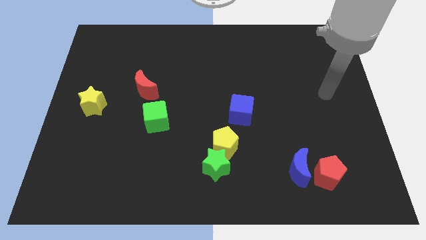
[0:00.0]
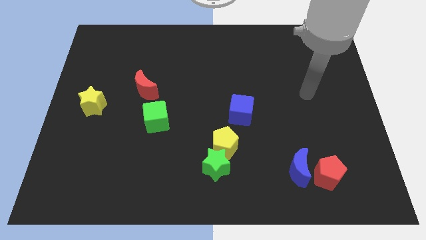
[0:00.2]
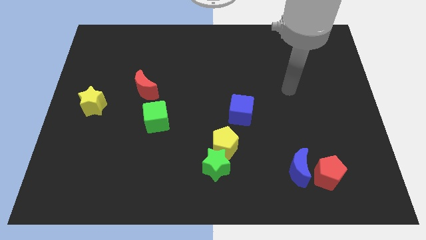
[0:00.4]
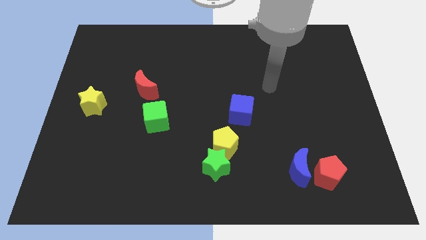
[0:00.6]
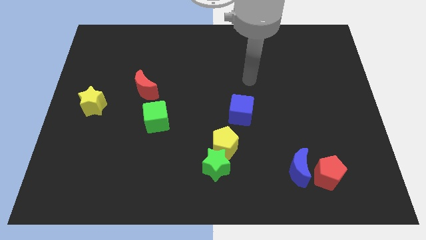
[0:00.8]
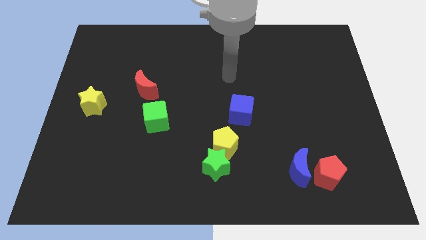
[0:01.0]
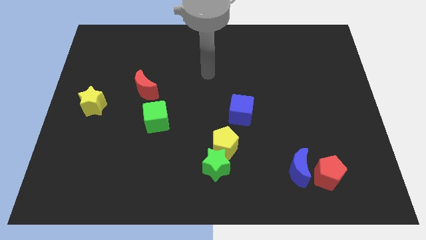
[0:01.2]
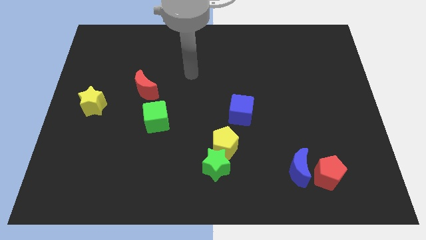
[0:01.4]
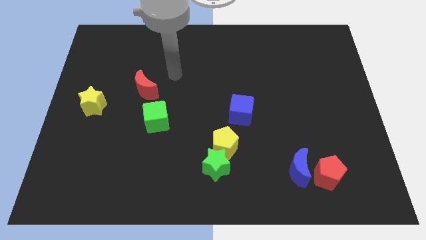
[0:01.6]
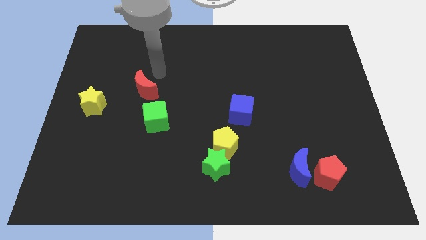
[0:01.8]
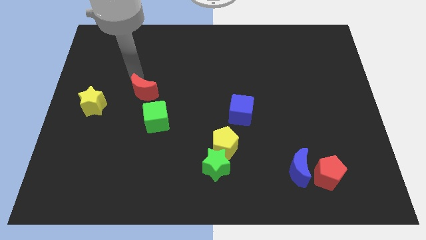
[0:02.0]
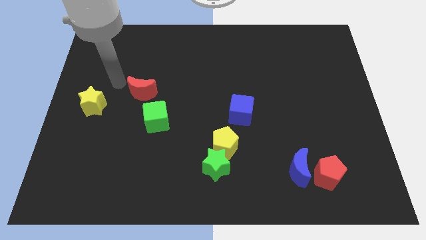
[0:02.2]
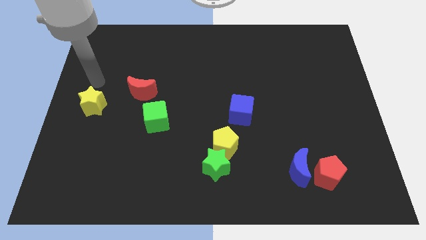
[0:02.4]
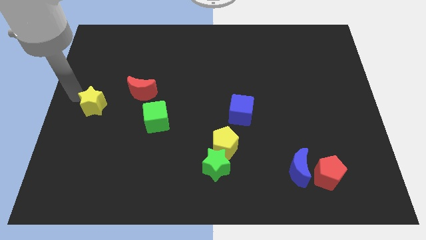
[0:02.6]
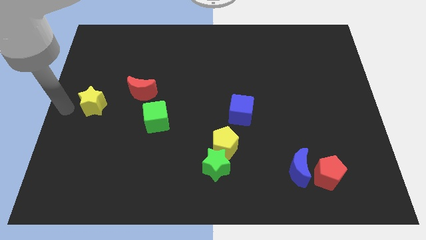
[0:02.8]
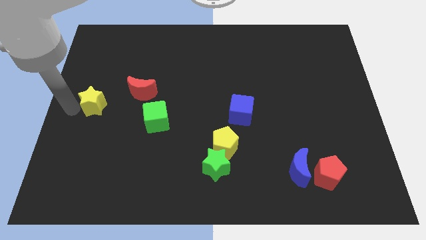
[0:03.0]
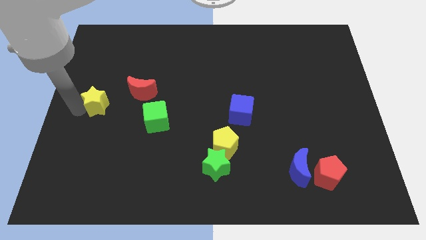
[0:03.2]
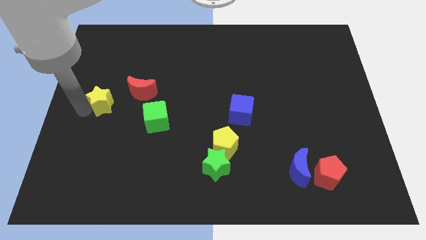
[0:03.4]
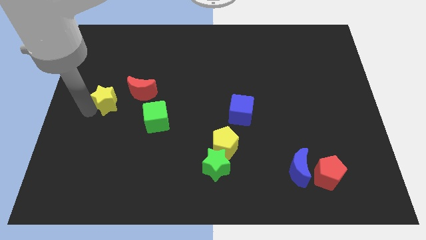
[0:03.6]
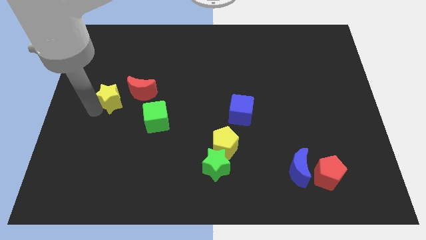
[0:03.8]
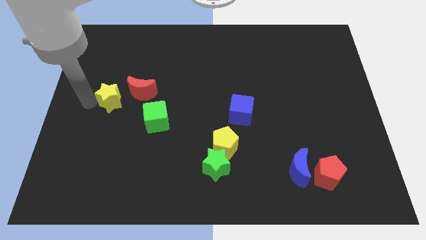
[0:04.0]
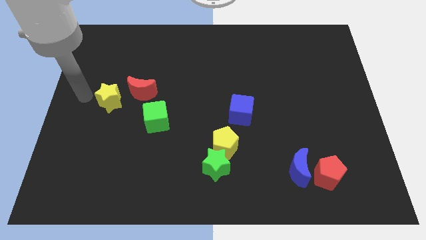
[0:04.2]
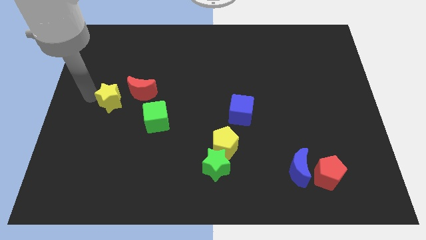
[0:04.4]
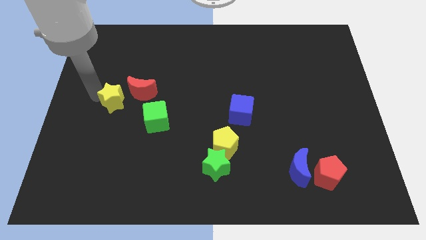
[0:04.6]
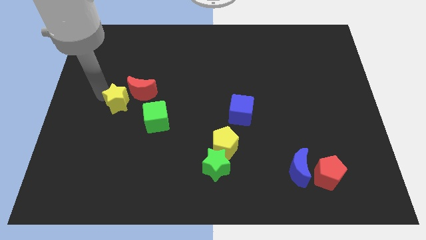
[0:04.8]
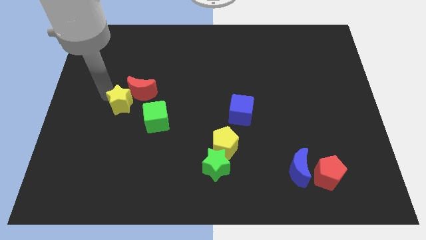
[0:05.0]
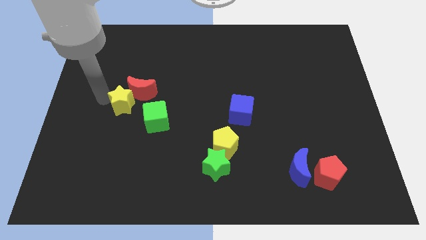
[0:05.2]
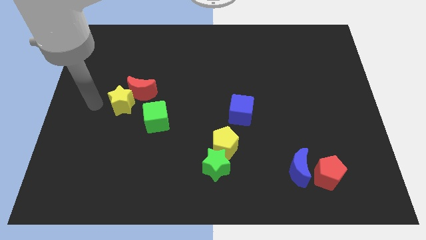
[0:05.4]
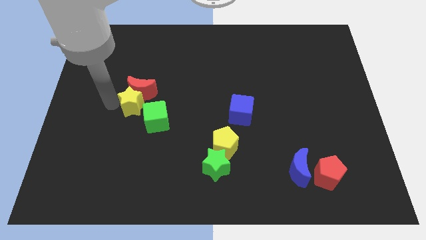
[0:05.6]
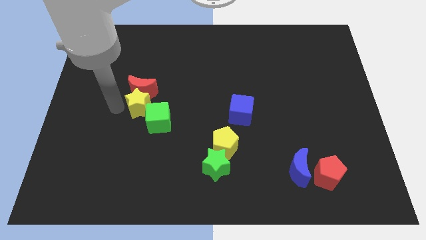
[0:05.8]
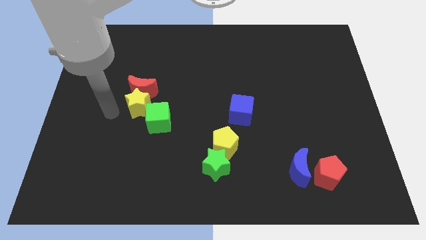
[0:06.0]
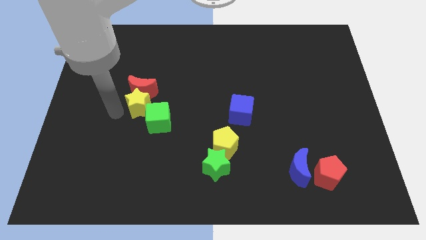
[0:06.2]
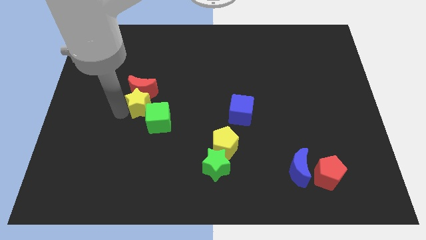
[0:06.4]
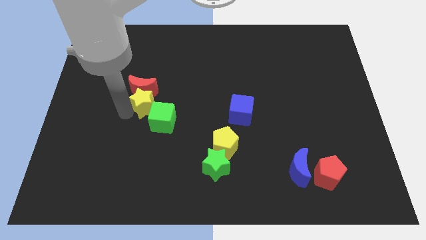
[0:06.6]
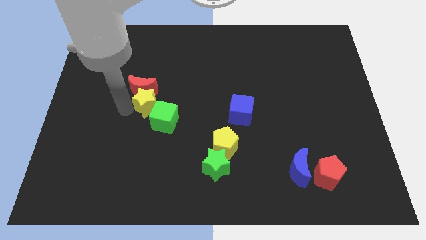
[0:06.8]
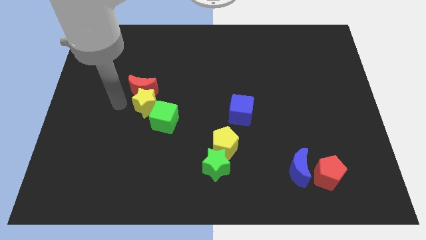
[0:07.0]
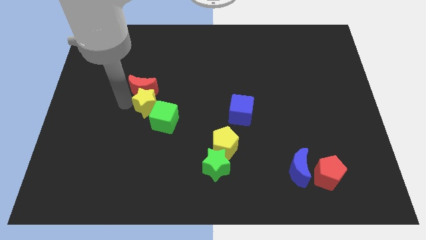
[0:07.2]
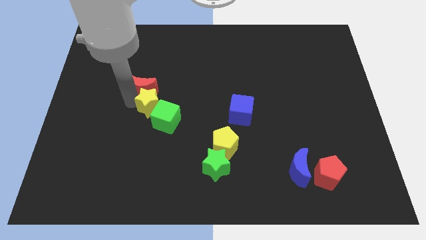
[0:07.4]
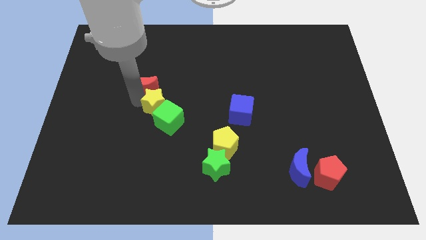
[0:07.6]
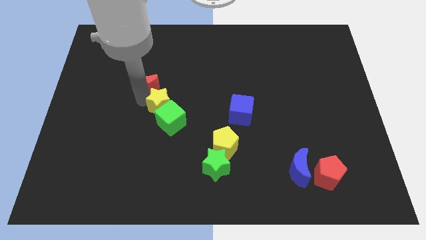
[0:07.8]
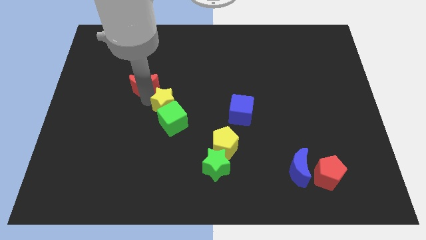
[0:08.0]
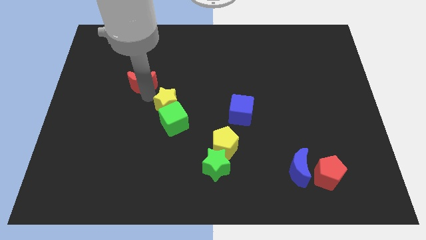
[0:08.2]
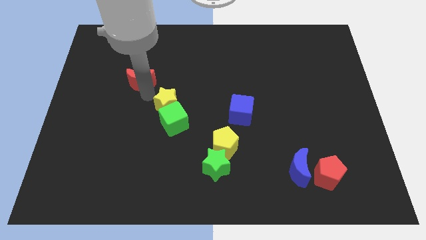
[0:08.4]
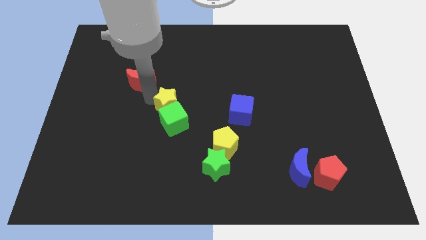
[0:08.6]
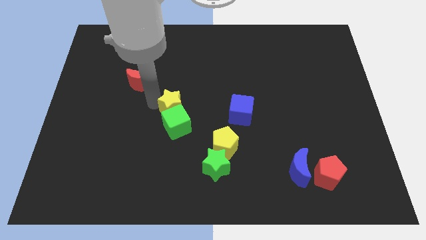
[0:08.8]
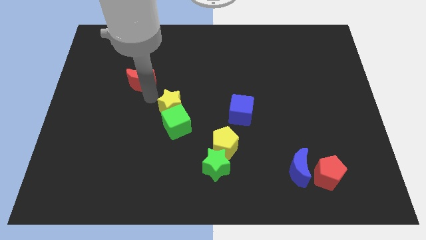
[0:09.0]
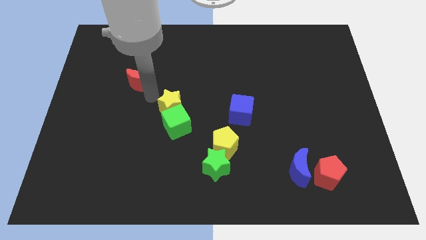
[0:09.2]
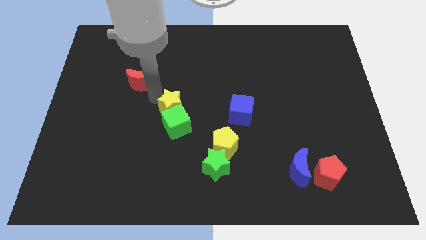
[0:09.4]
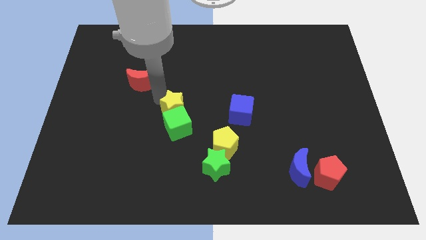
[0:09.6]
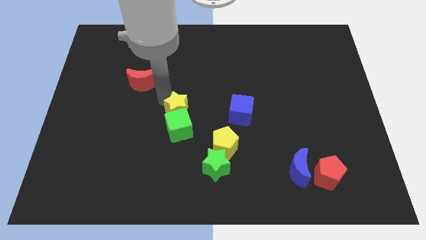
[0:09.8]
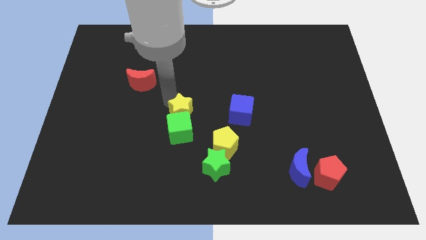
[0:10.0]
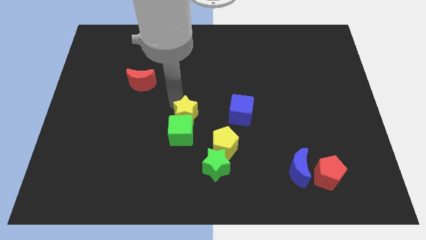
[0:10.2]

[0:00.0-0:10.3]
move the yellow star to the top left side of the yellow pentagon

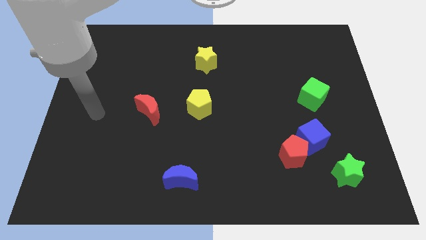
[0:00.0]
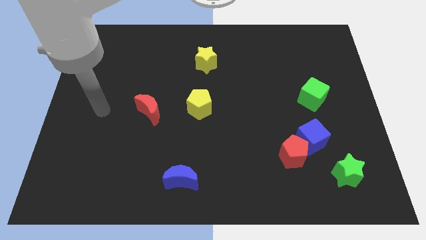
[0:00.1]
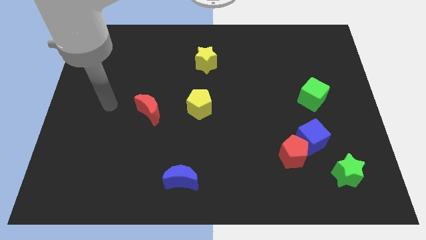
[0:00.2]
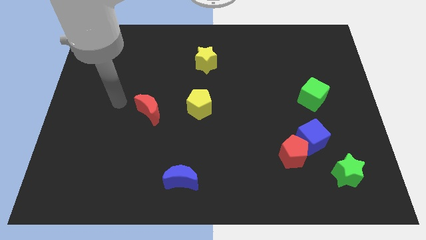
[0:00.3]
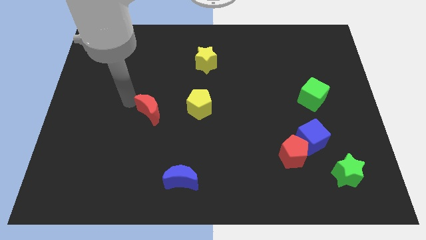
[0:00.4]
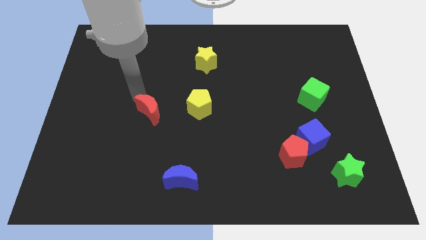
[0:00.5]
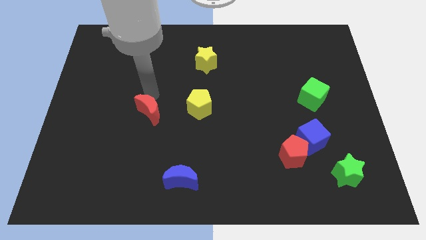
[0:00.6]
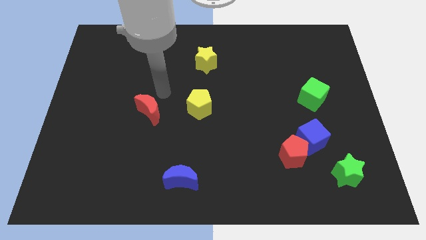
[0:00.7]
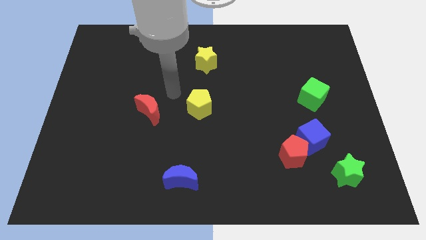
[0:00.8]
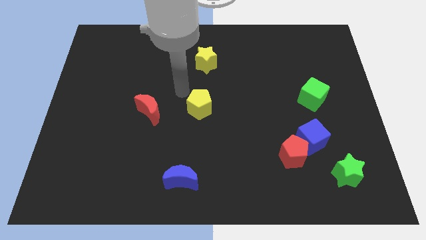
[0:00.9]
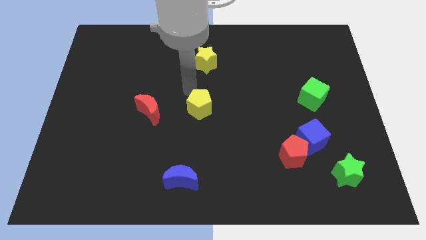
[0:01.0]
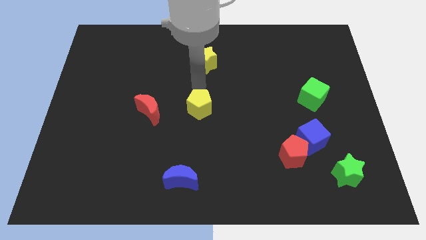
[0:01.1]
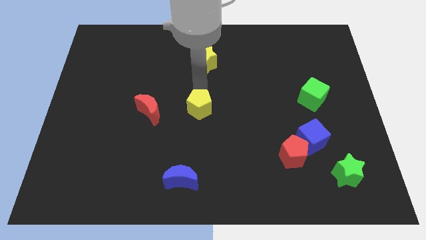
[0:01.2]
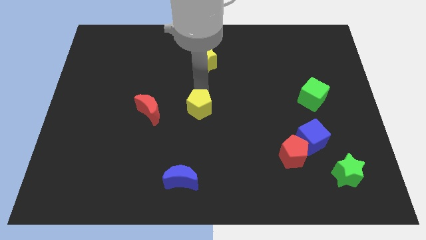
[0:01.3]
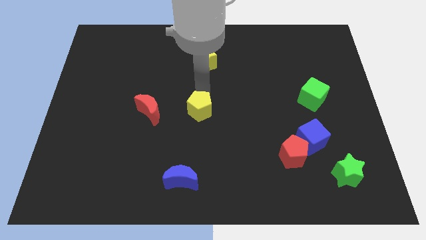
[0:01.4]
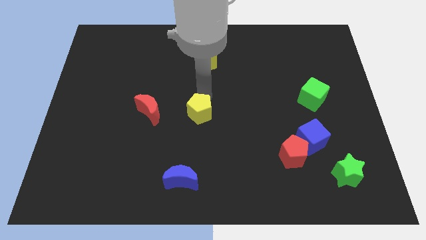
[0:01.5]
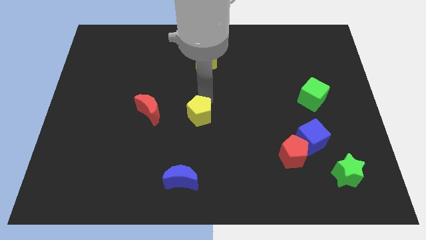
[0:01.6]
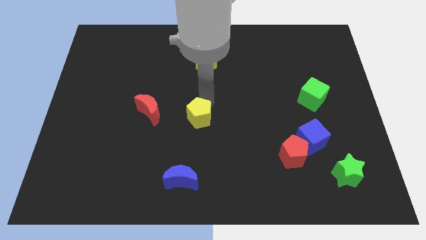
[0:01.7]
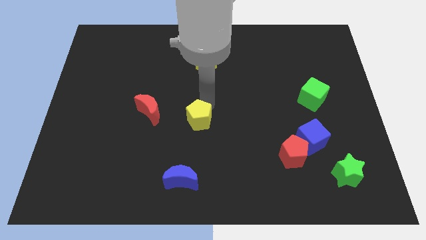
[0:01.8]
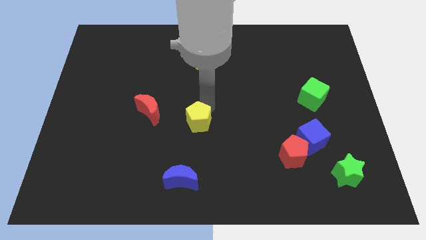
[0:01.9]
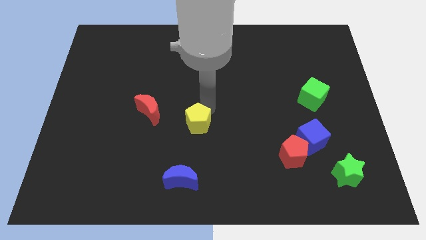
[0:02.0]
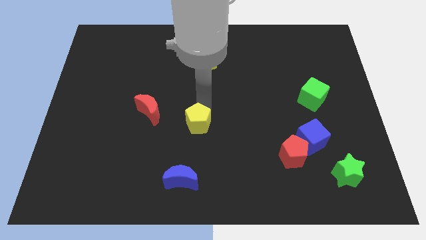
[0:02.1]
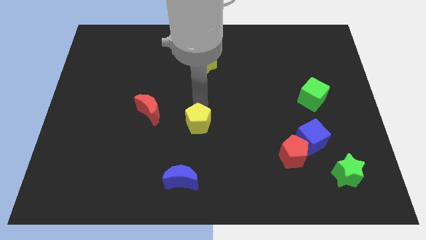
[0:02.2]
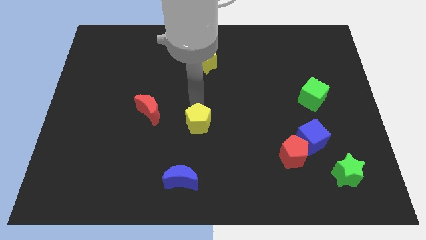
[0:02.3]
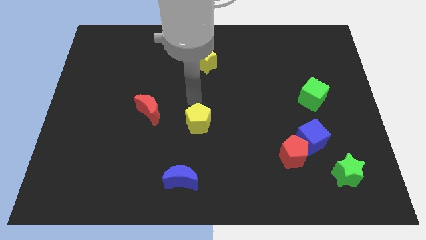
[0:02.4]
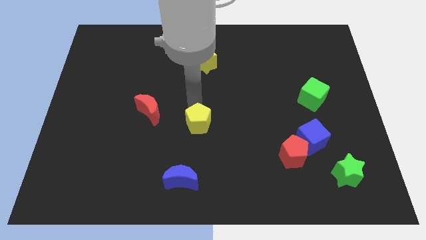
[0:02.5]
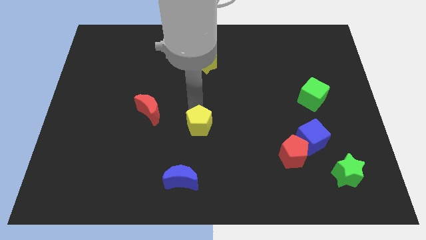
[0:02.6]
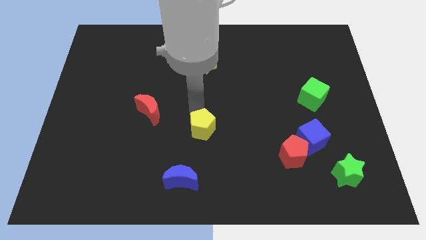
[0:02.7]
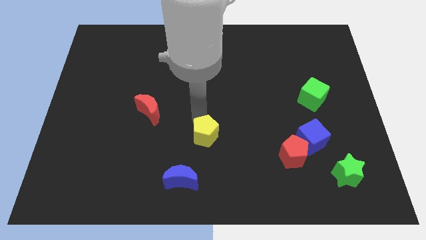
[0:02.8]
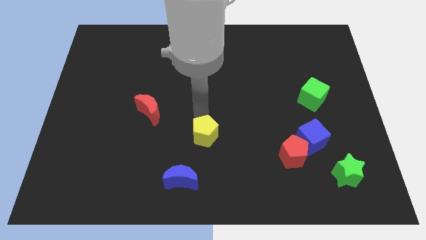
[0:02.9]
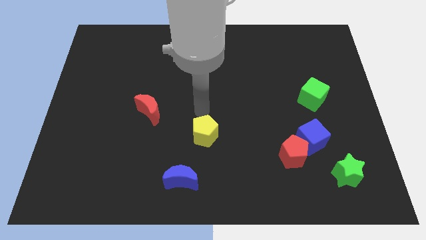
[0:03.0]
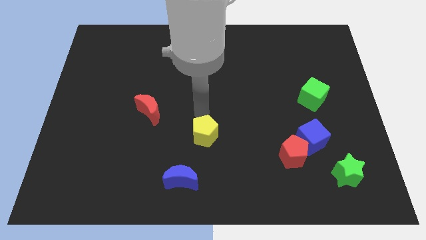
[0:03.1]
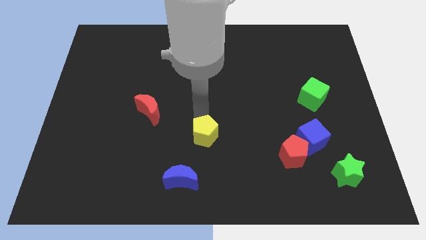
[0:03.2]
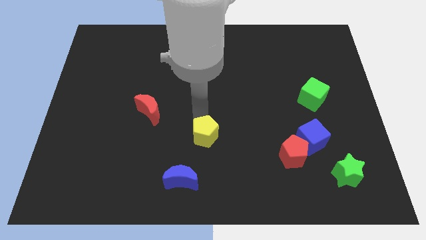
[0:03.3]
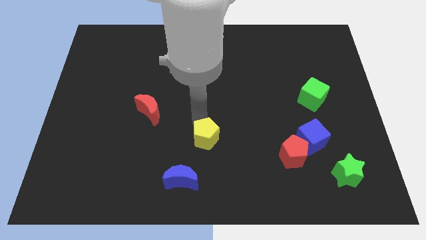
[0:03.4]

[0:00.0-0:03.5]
move the yellow pentagon to the top right side of the blue moon
